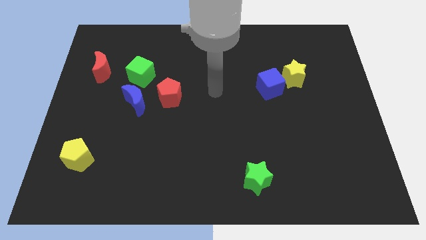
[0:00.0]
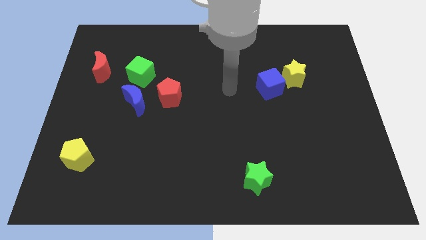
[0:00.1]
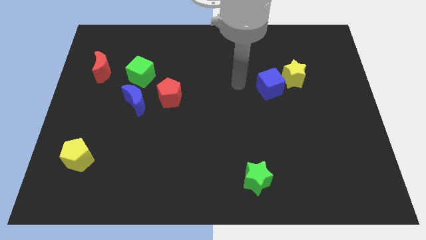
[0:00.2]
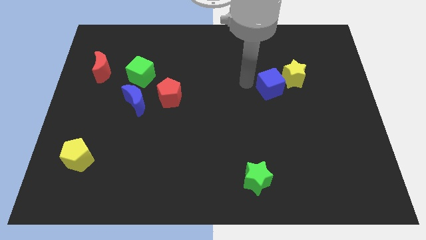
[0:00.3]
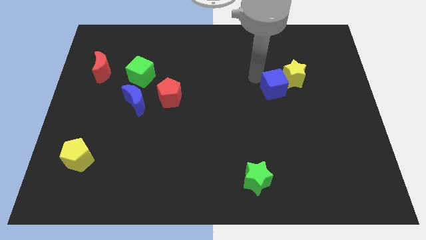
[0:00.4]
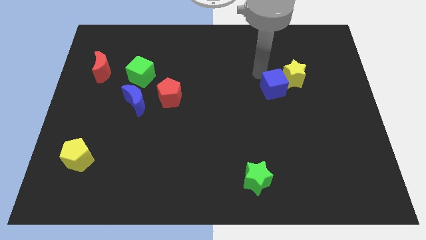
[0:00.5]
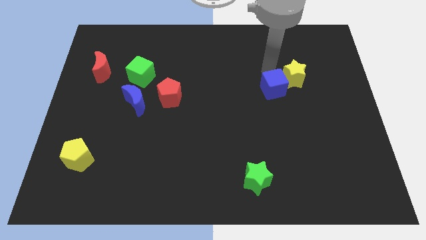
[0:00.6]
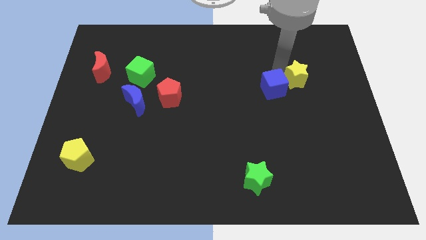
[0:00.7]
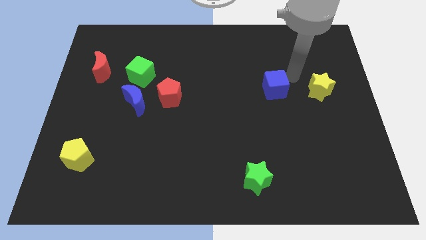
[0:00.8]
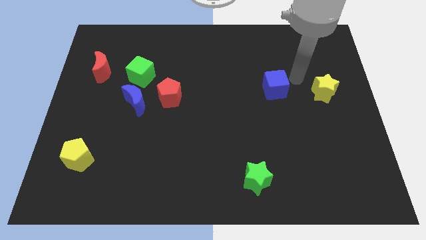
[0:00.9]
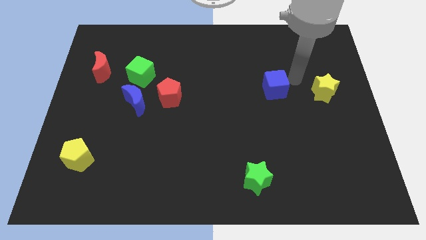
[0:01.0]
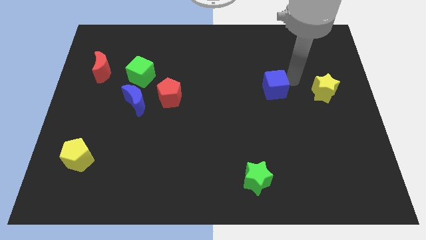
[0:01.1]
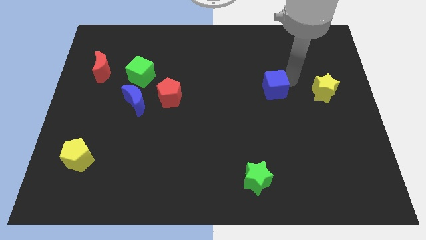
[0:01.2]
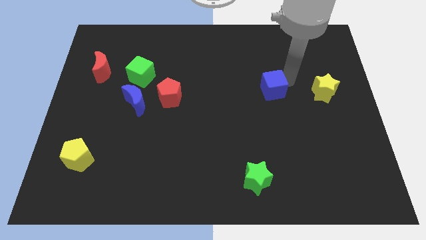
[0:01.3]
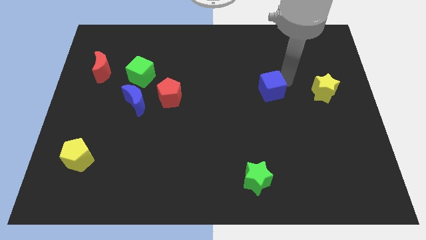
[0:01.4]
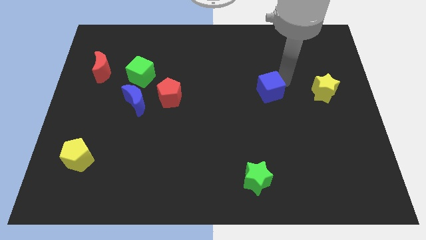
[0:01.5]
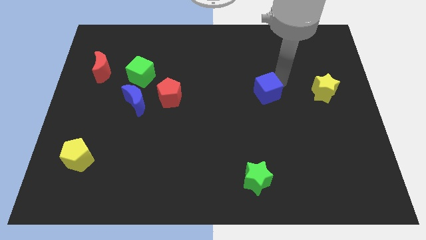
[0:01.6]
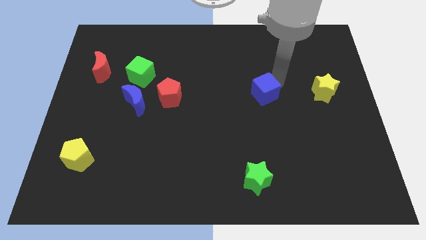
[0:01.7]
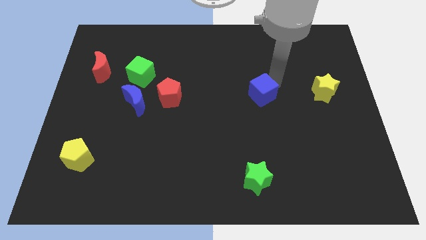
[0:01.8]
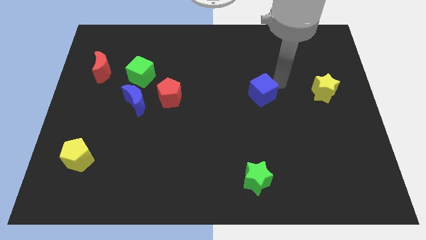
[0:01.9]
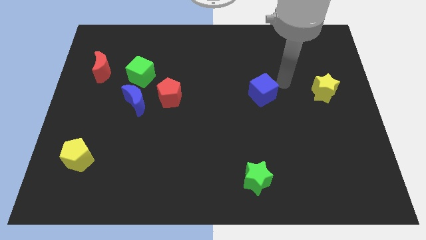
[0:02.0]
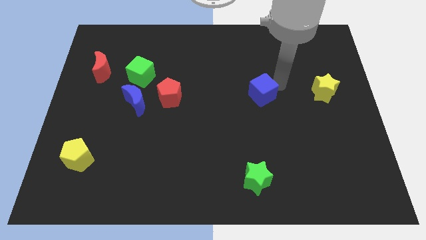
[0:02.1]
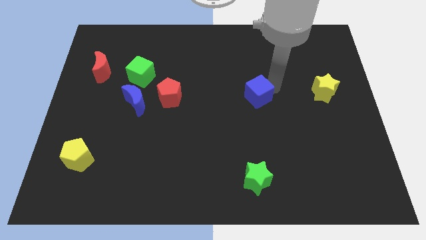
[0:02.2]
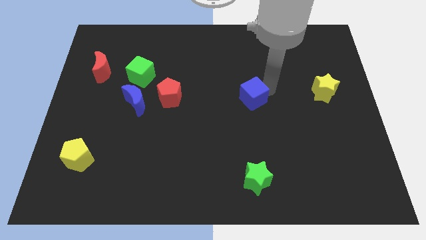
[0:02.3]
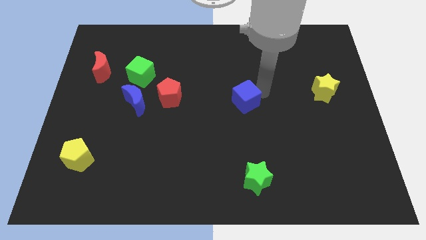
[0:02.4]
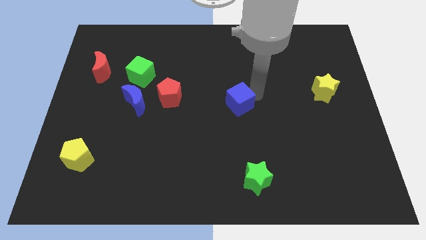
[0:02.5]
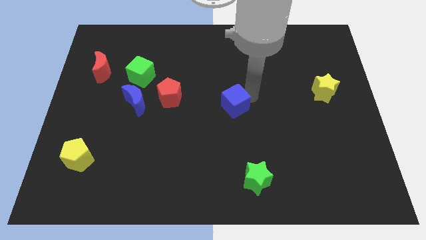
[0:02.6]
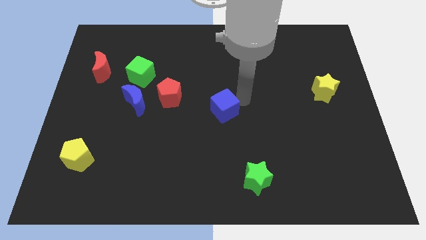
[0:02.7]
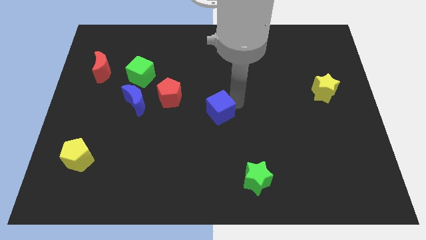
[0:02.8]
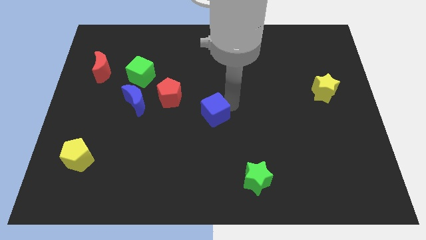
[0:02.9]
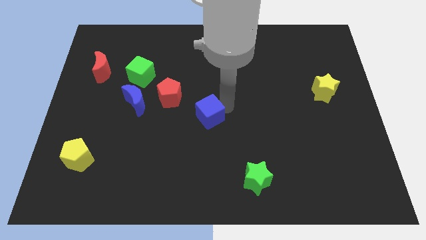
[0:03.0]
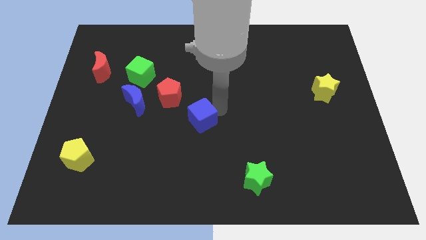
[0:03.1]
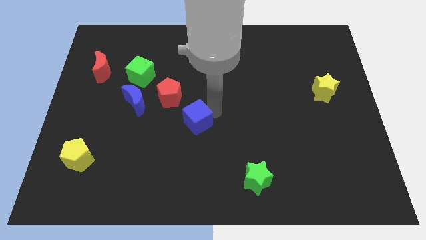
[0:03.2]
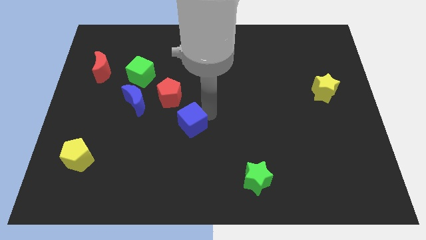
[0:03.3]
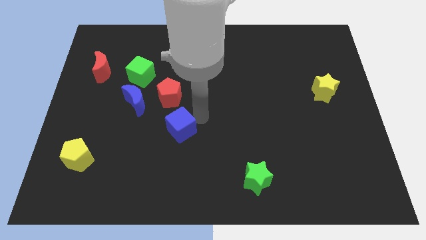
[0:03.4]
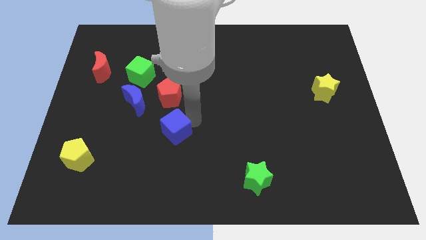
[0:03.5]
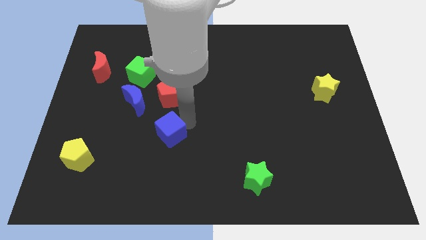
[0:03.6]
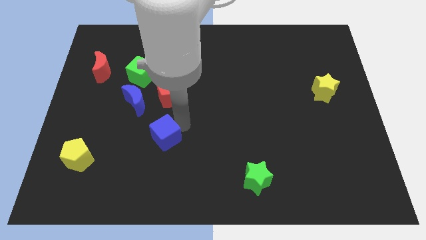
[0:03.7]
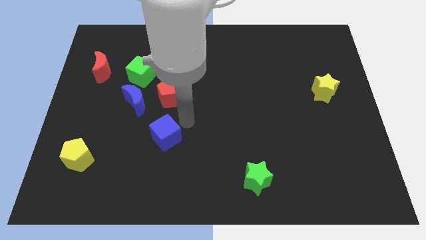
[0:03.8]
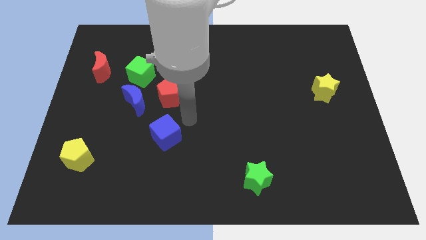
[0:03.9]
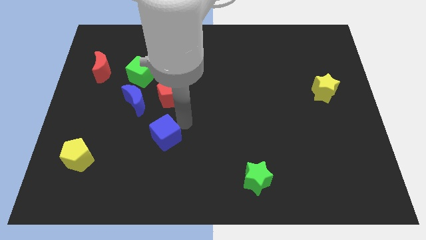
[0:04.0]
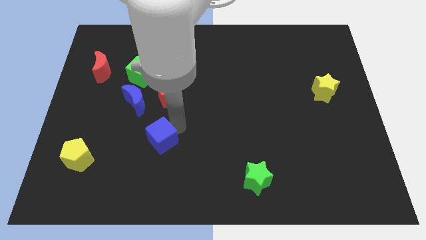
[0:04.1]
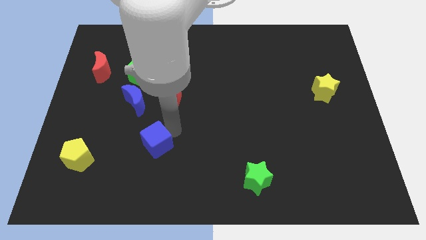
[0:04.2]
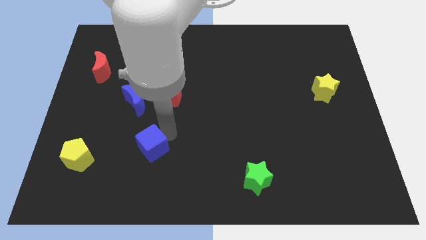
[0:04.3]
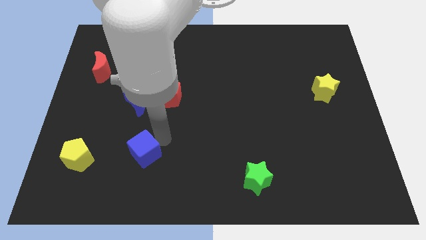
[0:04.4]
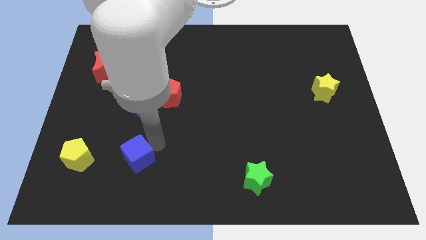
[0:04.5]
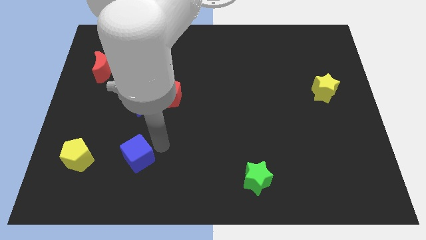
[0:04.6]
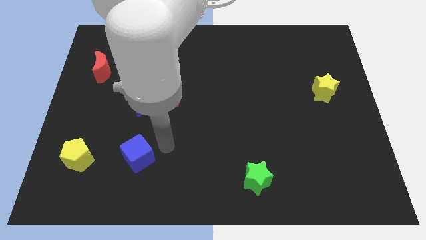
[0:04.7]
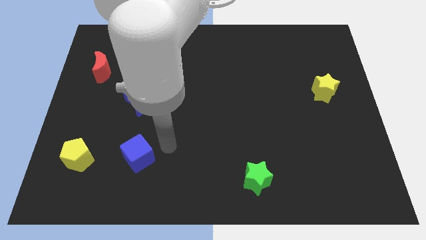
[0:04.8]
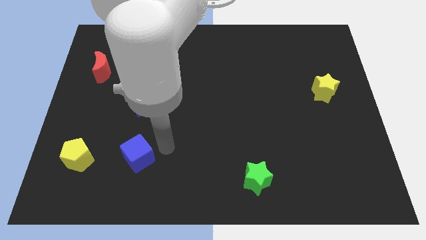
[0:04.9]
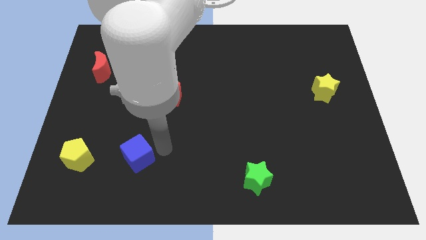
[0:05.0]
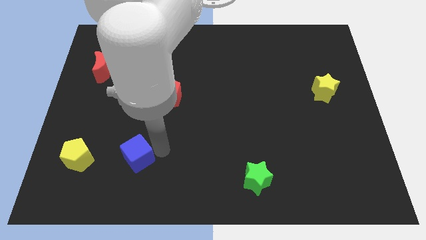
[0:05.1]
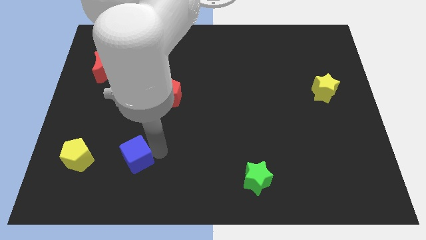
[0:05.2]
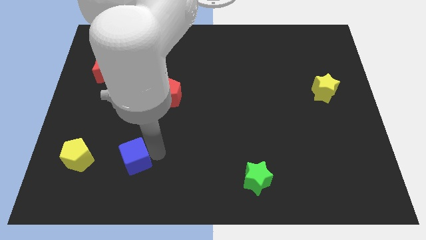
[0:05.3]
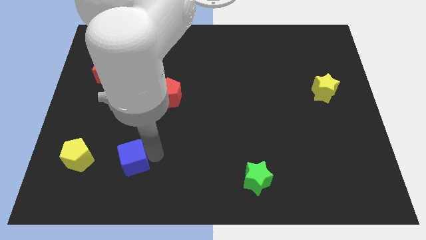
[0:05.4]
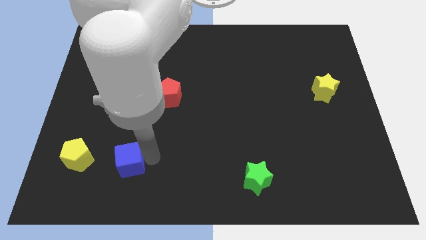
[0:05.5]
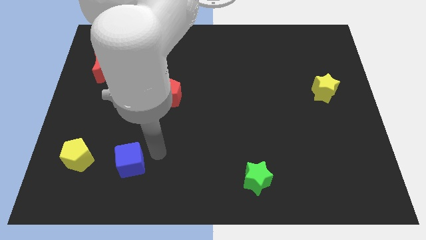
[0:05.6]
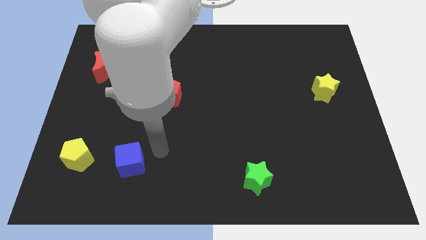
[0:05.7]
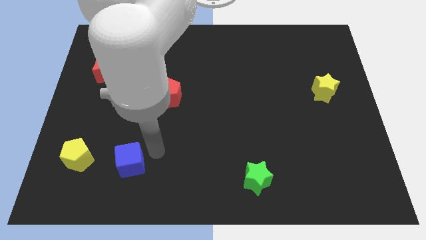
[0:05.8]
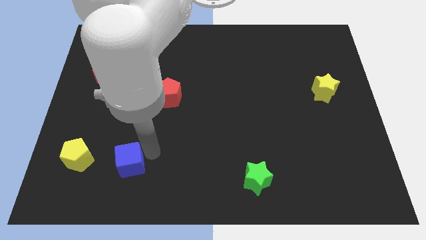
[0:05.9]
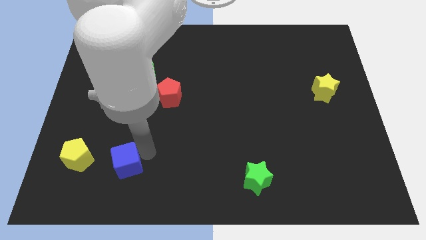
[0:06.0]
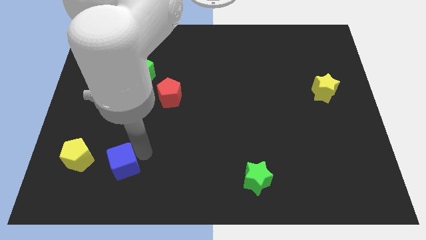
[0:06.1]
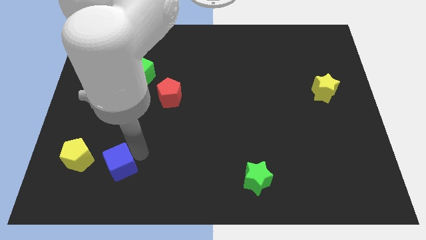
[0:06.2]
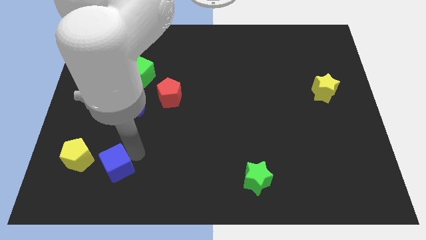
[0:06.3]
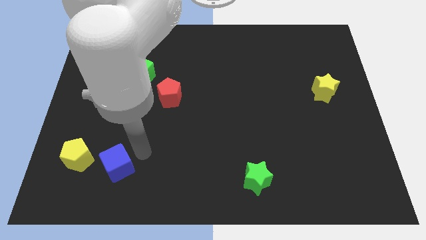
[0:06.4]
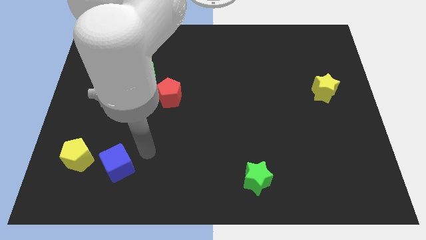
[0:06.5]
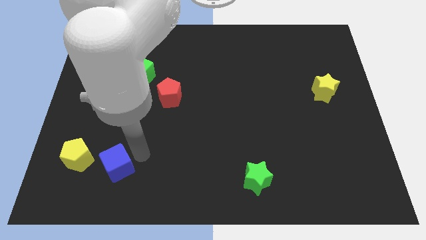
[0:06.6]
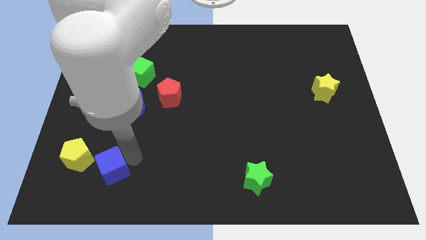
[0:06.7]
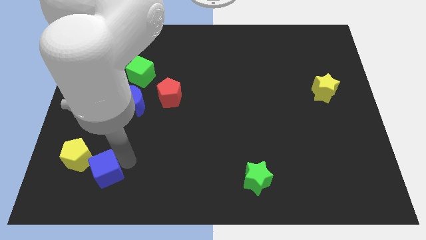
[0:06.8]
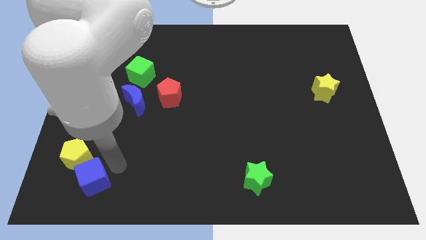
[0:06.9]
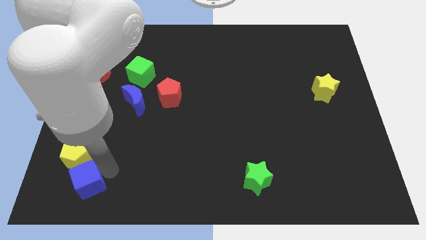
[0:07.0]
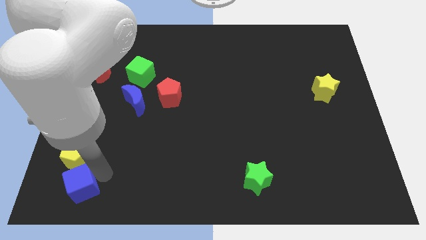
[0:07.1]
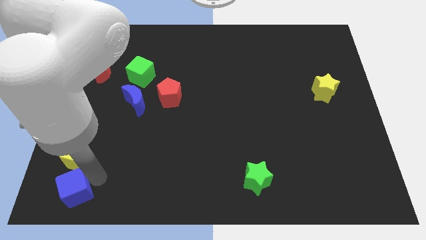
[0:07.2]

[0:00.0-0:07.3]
move the blue cube to the bottom left
